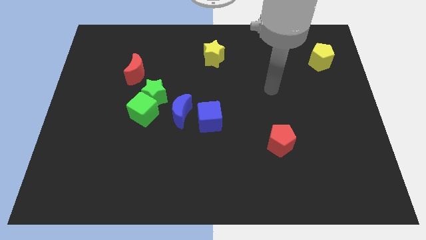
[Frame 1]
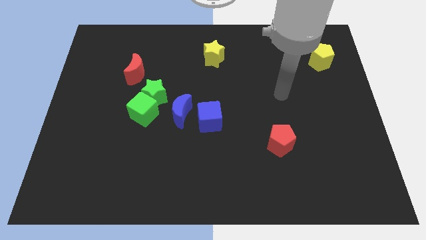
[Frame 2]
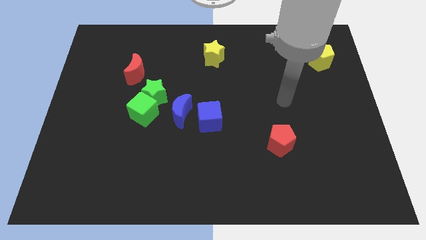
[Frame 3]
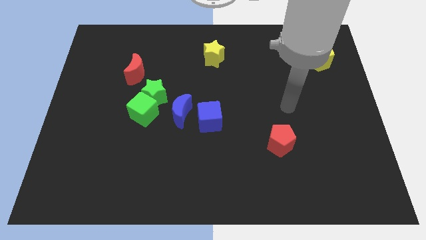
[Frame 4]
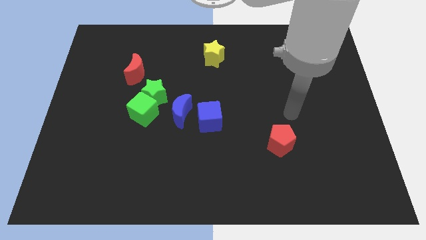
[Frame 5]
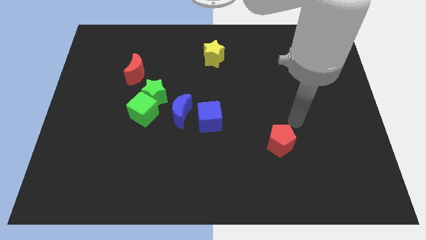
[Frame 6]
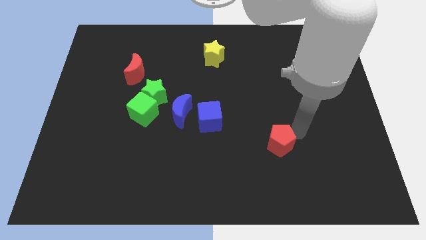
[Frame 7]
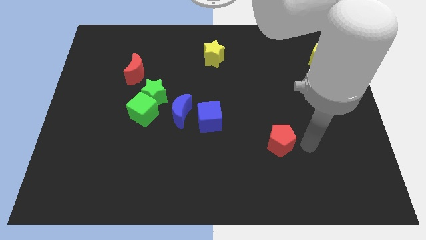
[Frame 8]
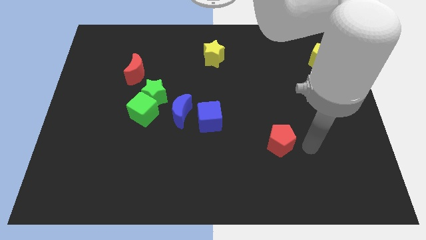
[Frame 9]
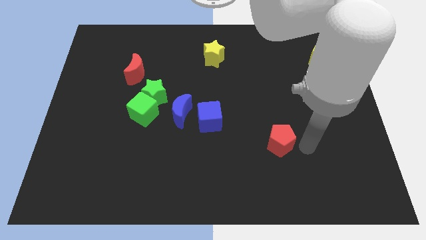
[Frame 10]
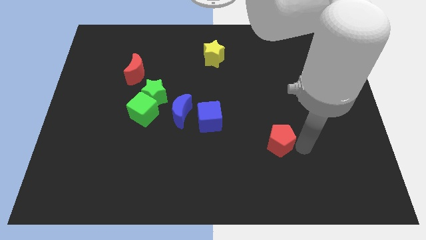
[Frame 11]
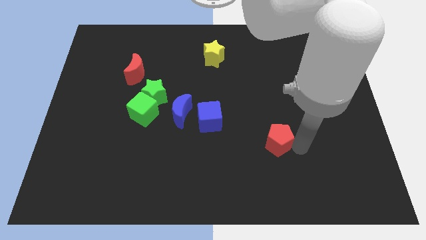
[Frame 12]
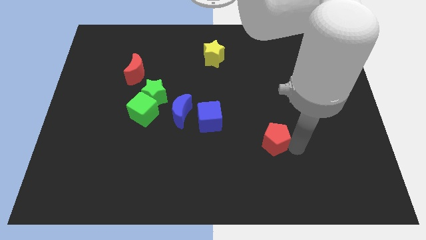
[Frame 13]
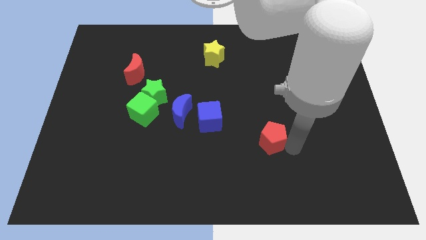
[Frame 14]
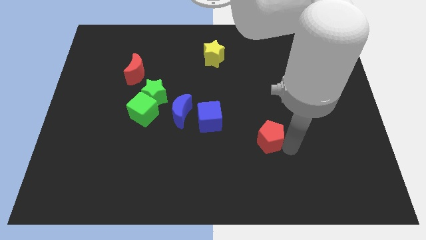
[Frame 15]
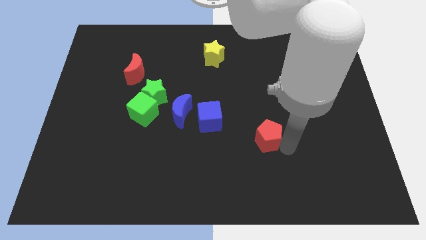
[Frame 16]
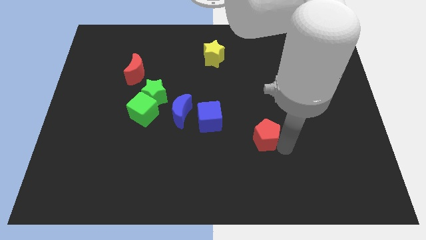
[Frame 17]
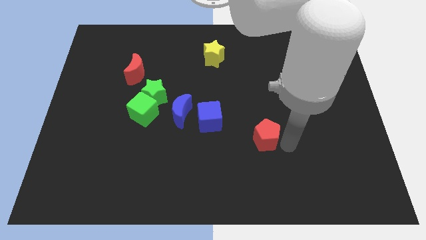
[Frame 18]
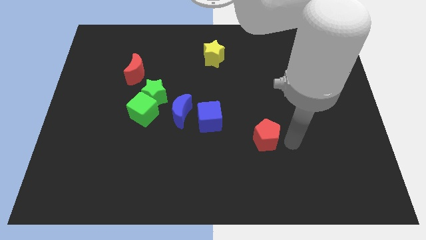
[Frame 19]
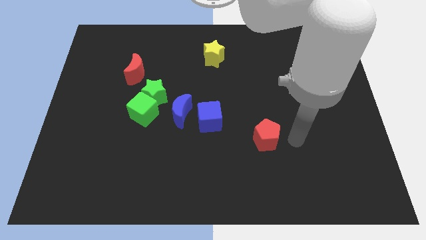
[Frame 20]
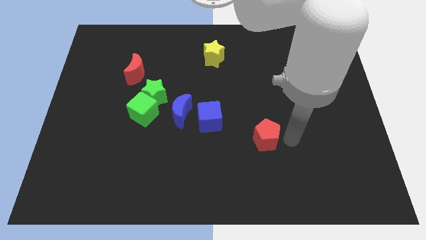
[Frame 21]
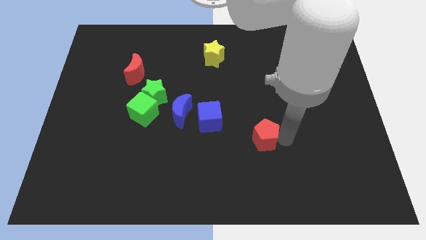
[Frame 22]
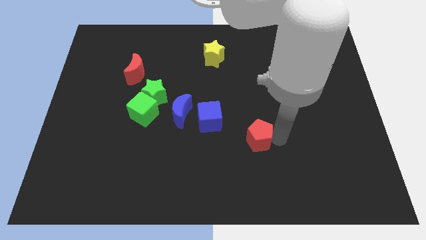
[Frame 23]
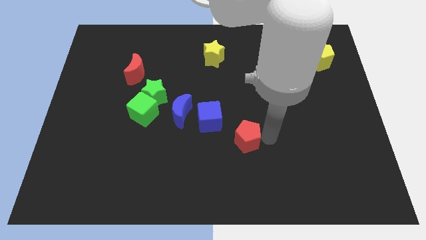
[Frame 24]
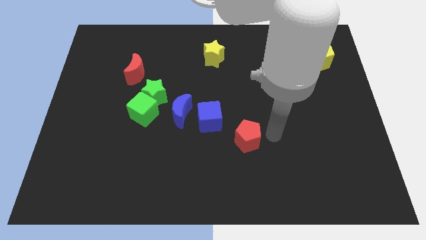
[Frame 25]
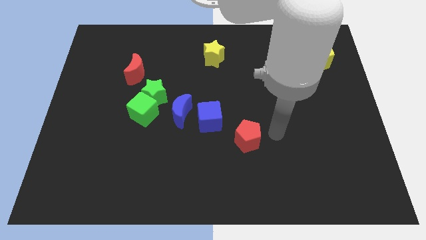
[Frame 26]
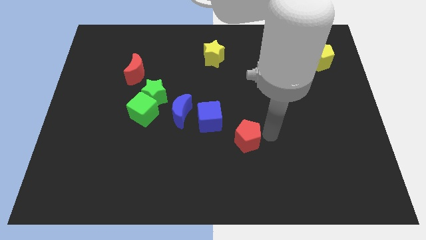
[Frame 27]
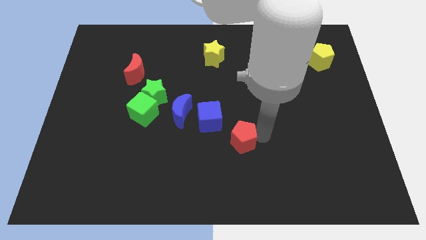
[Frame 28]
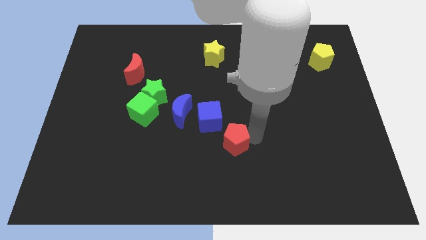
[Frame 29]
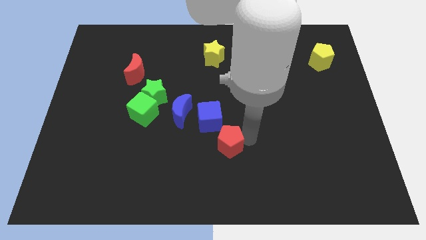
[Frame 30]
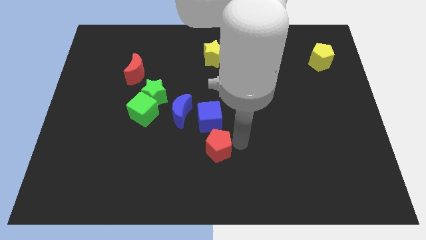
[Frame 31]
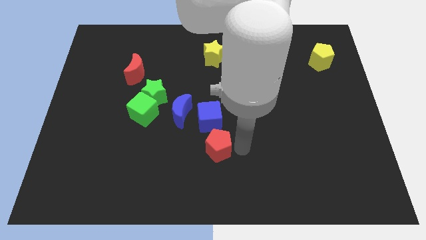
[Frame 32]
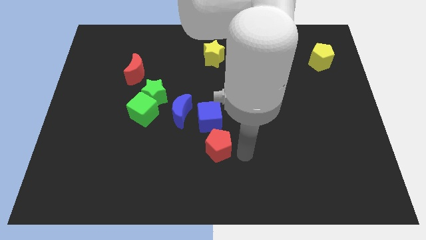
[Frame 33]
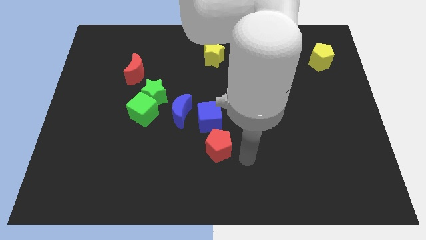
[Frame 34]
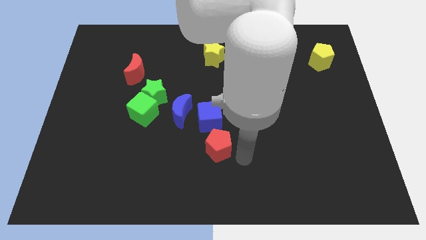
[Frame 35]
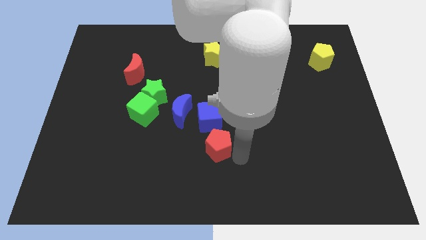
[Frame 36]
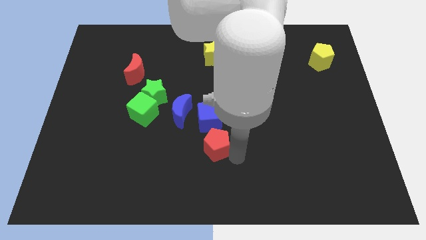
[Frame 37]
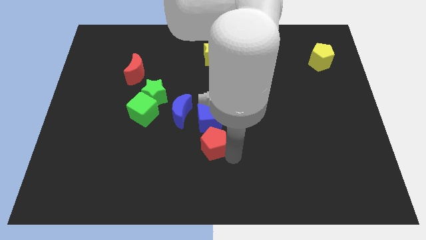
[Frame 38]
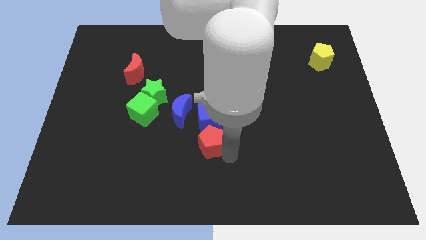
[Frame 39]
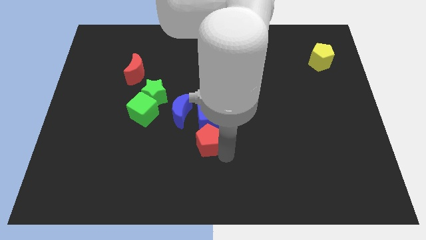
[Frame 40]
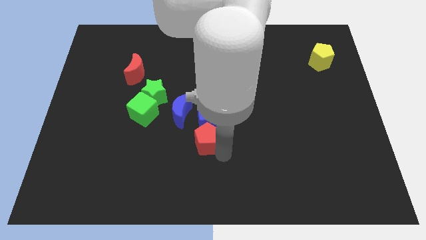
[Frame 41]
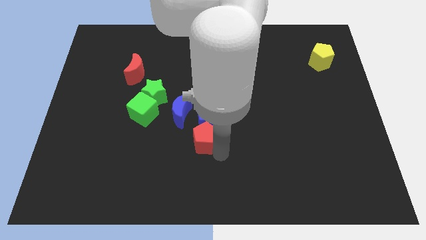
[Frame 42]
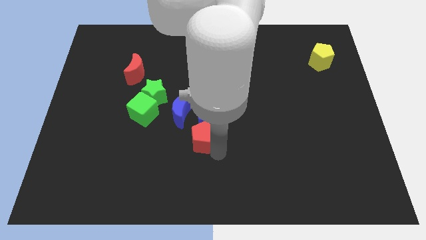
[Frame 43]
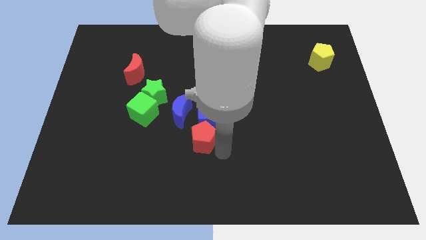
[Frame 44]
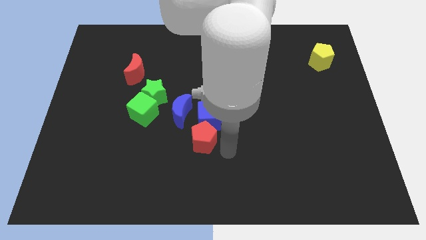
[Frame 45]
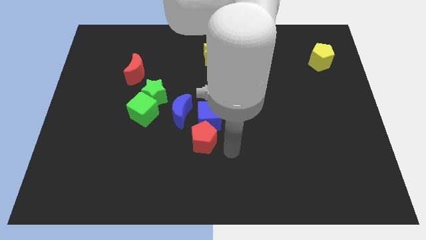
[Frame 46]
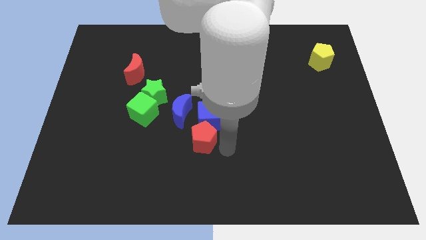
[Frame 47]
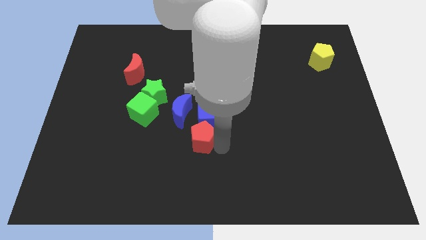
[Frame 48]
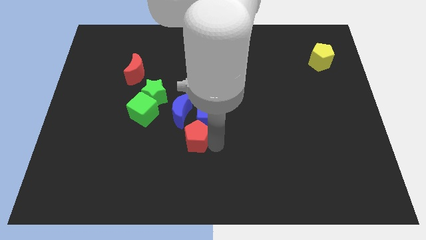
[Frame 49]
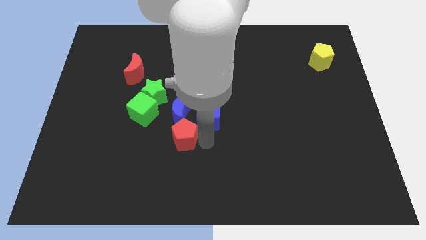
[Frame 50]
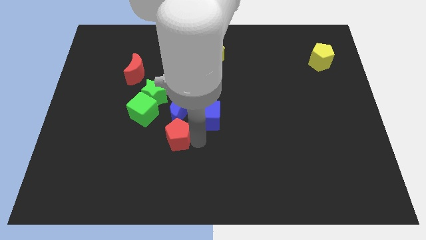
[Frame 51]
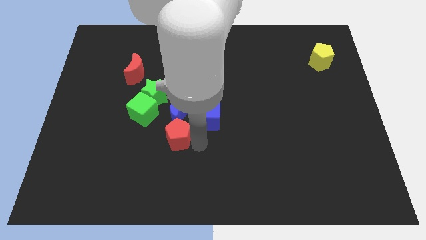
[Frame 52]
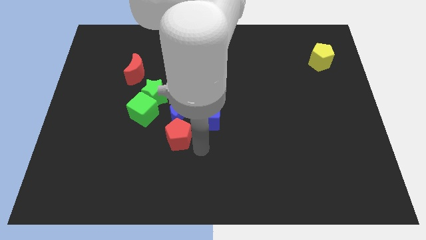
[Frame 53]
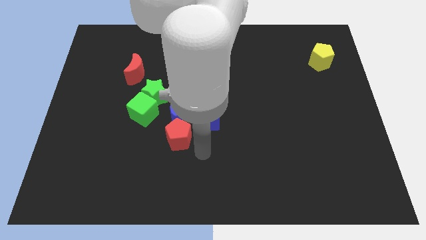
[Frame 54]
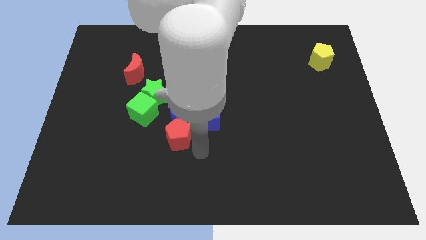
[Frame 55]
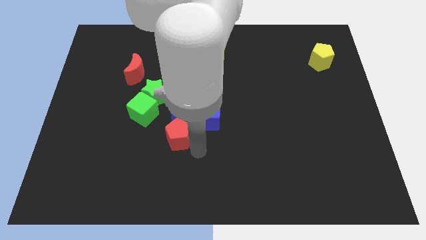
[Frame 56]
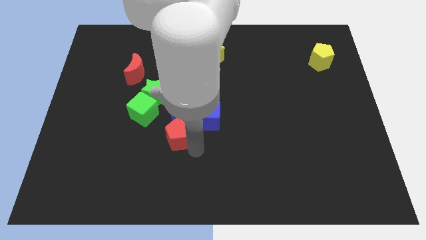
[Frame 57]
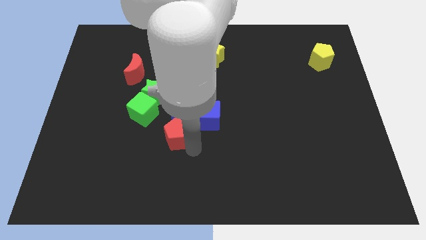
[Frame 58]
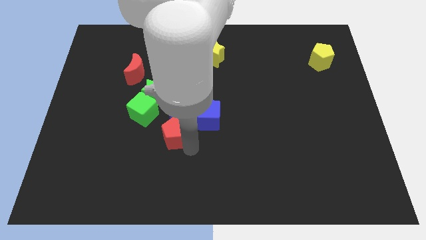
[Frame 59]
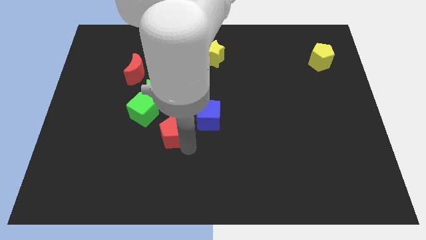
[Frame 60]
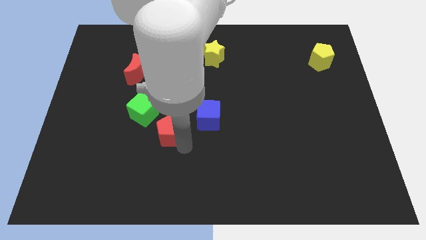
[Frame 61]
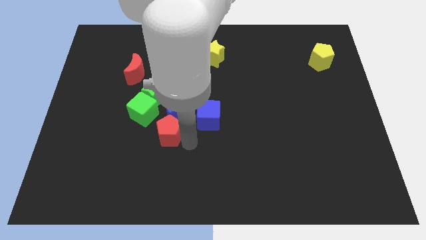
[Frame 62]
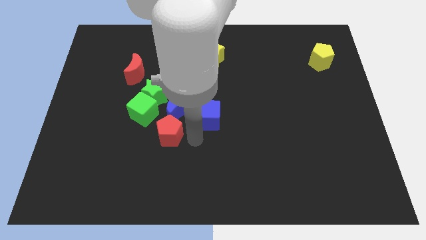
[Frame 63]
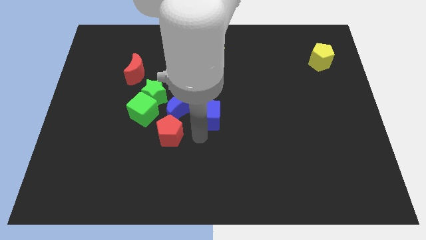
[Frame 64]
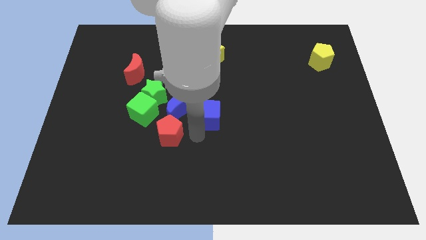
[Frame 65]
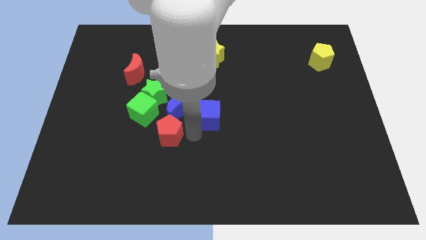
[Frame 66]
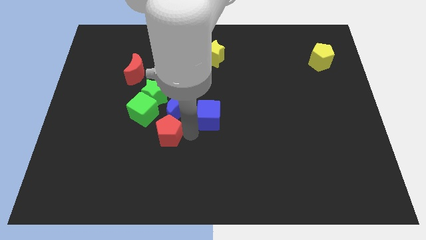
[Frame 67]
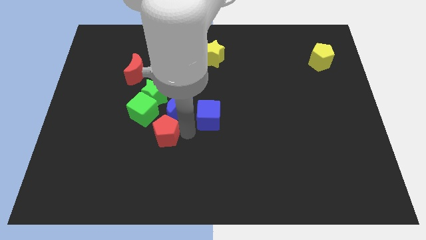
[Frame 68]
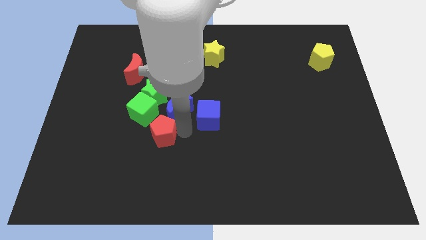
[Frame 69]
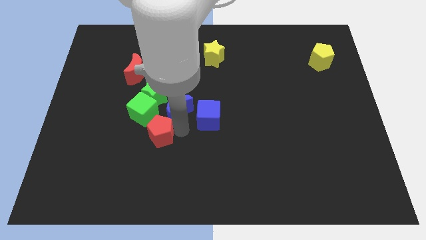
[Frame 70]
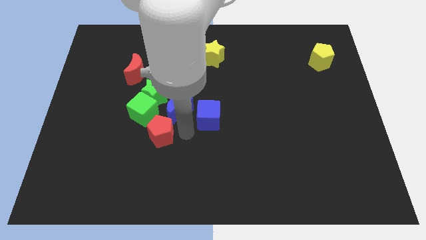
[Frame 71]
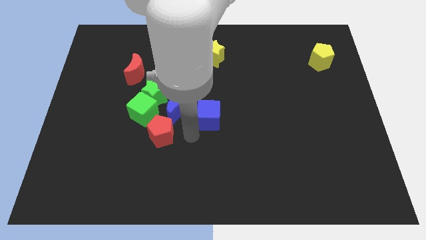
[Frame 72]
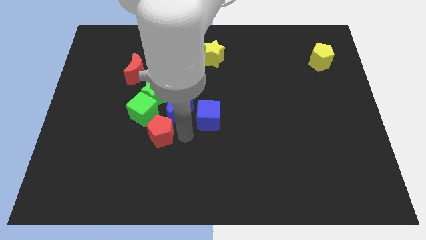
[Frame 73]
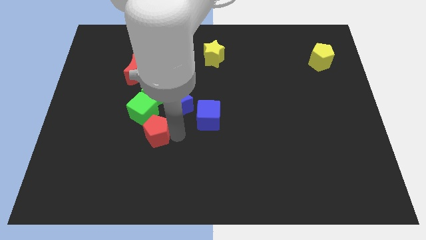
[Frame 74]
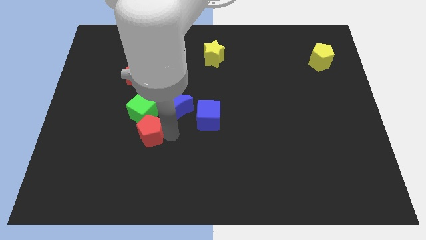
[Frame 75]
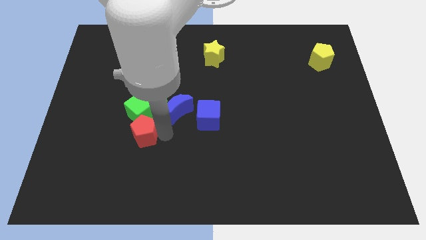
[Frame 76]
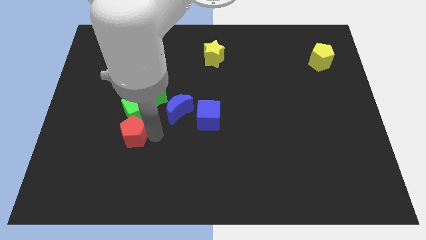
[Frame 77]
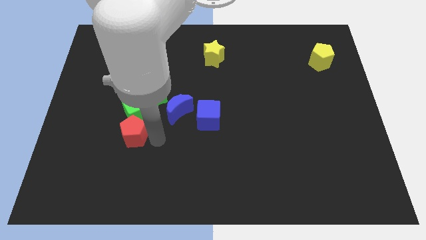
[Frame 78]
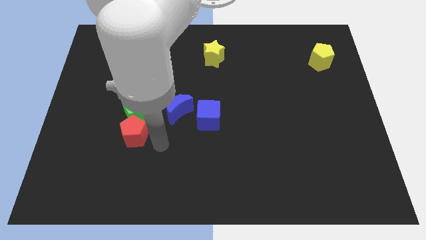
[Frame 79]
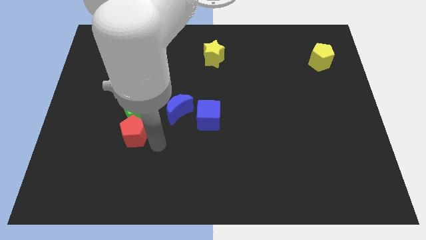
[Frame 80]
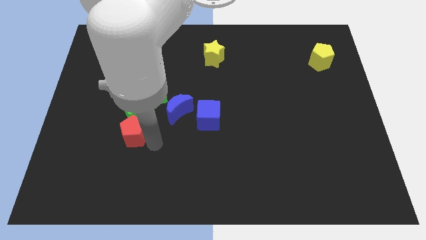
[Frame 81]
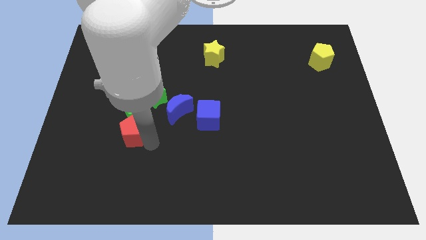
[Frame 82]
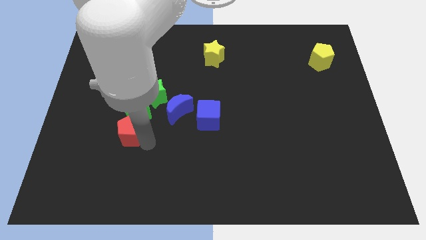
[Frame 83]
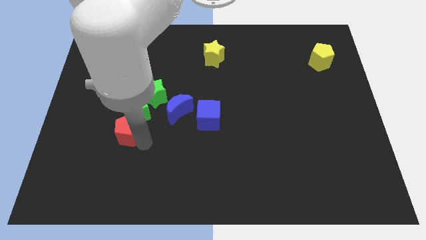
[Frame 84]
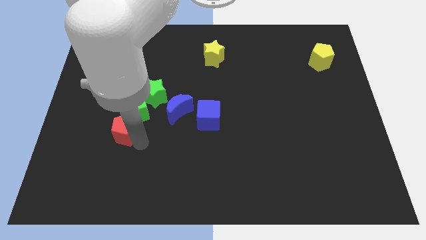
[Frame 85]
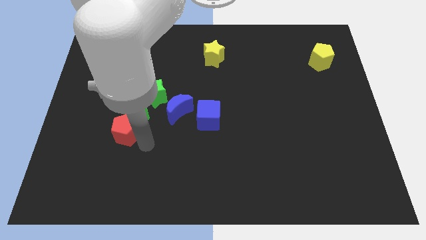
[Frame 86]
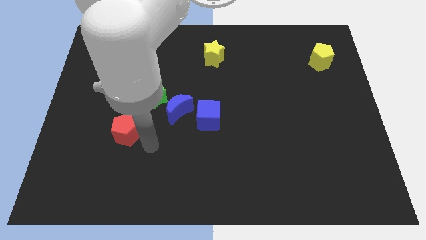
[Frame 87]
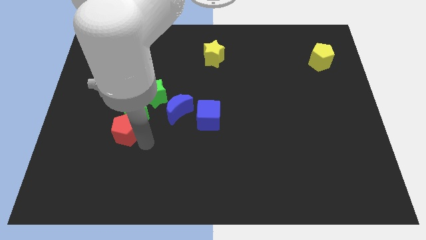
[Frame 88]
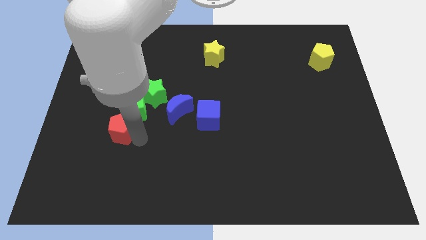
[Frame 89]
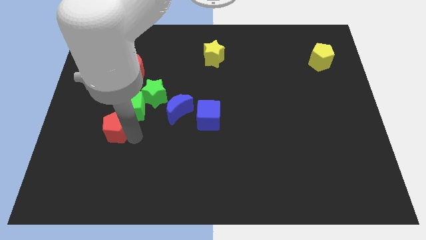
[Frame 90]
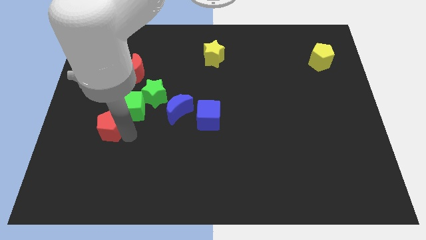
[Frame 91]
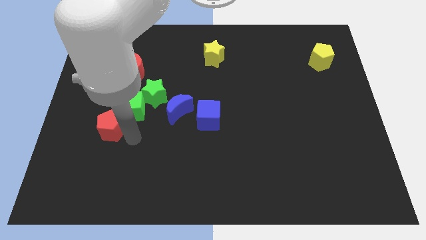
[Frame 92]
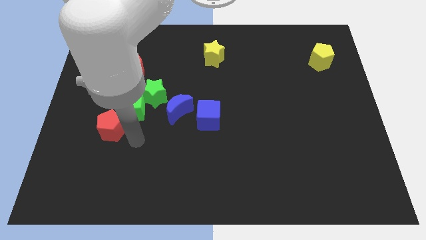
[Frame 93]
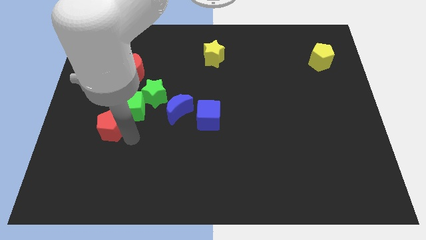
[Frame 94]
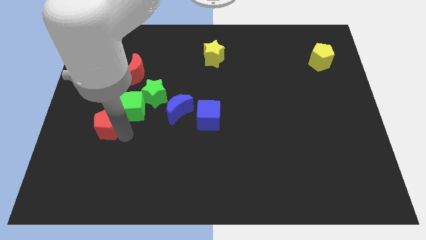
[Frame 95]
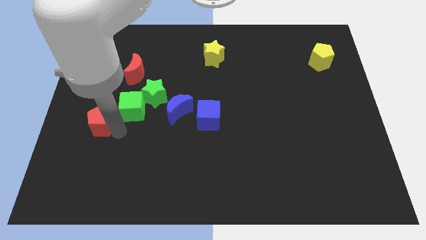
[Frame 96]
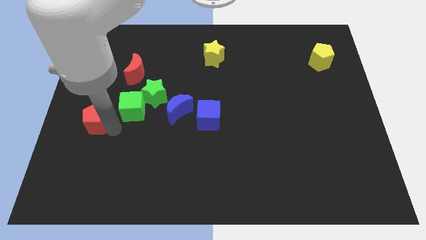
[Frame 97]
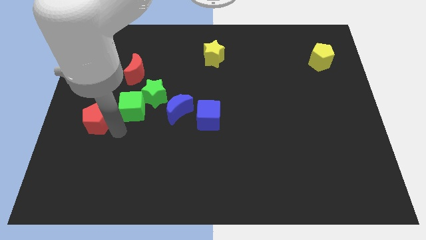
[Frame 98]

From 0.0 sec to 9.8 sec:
push the red pentagon to the left side
